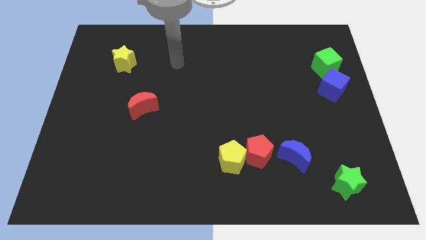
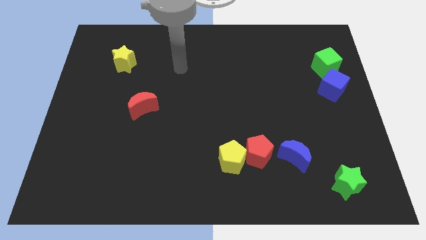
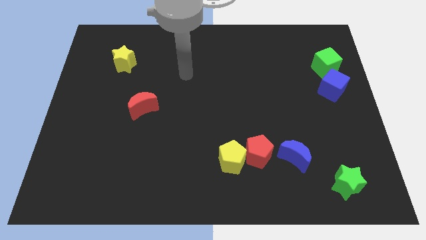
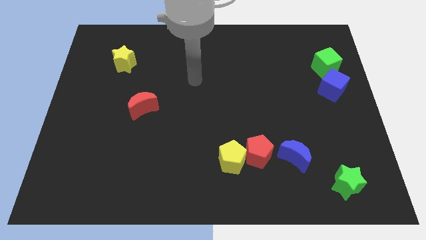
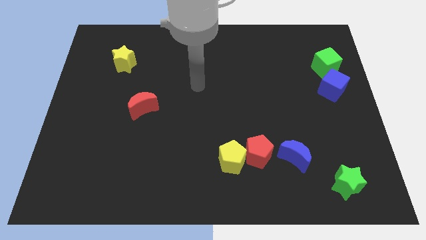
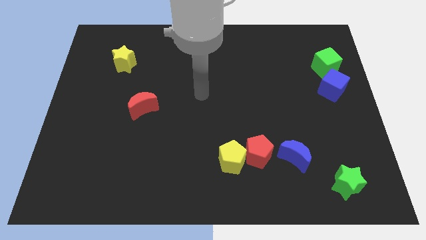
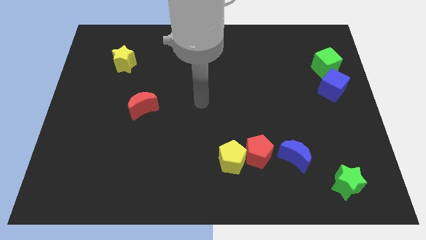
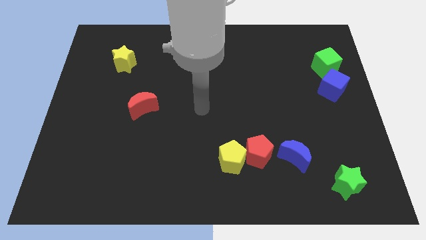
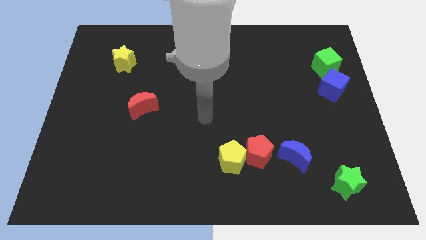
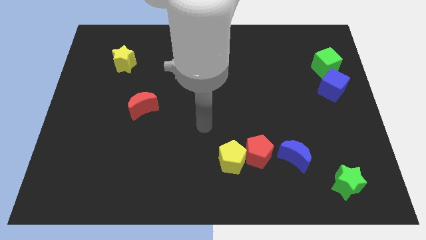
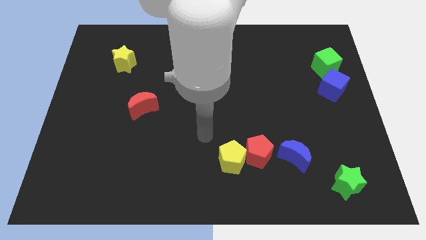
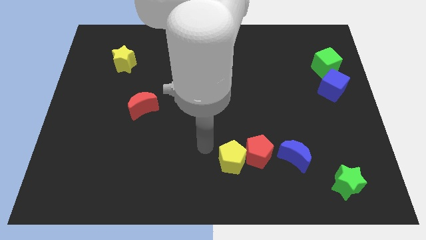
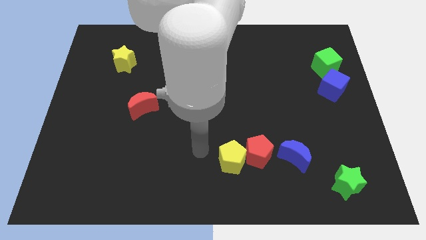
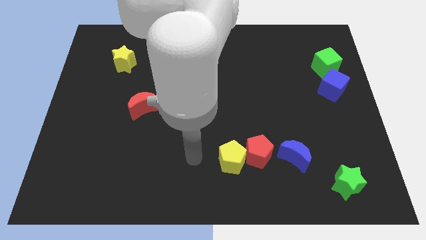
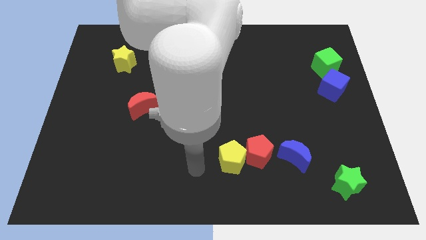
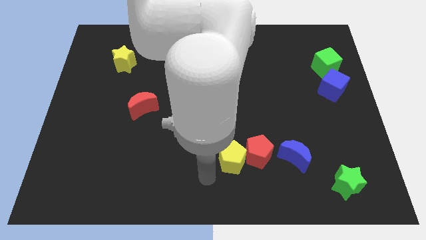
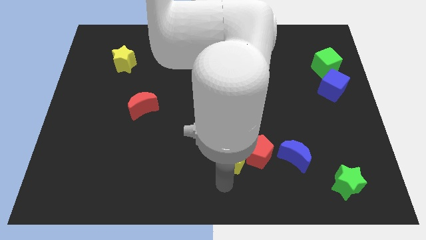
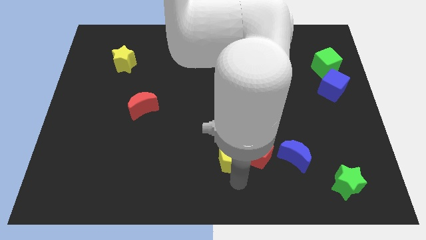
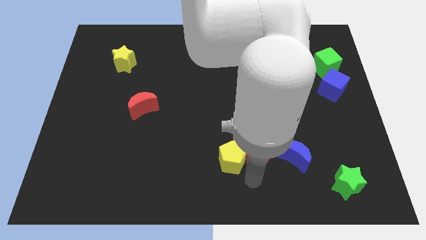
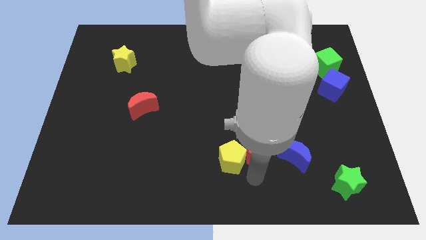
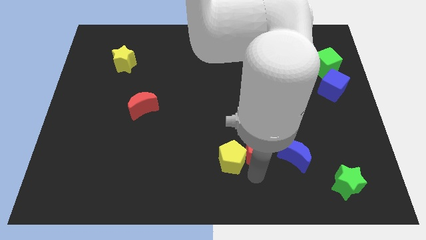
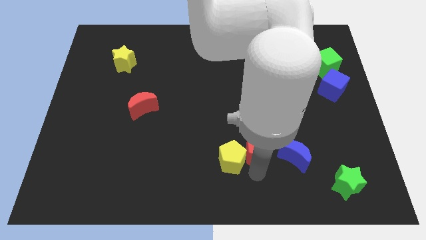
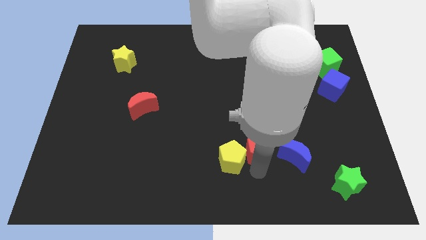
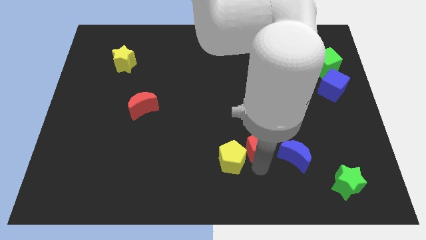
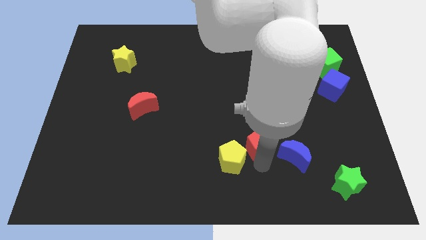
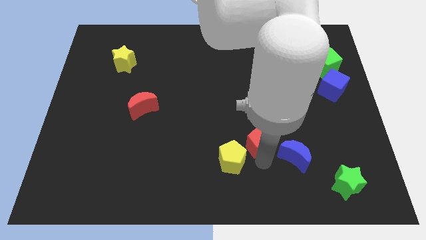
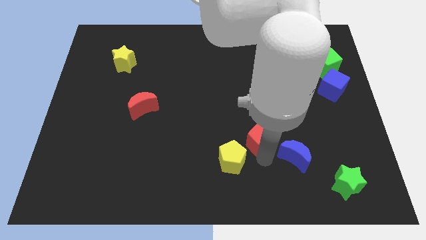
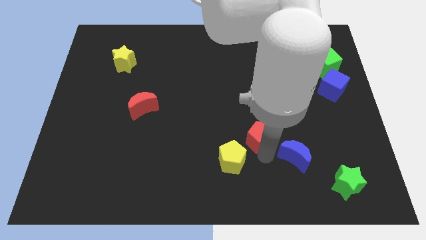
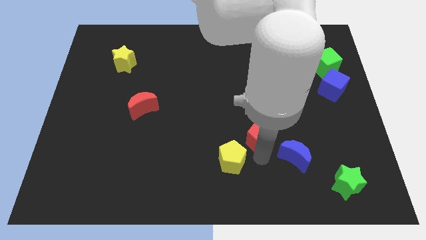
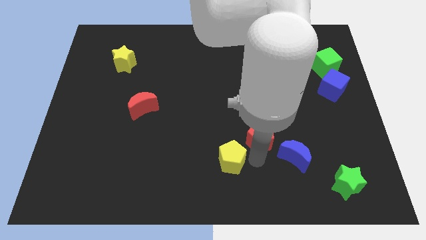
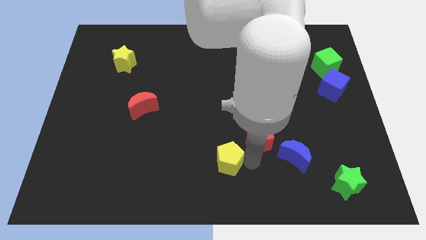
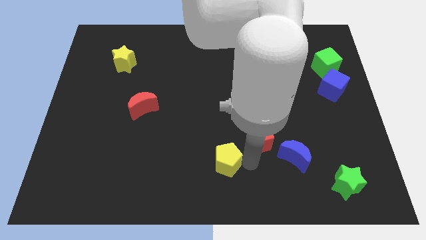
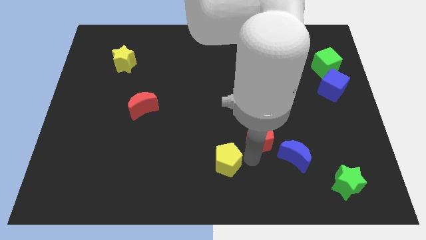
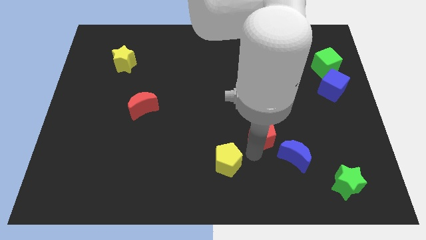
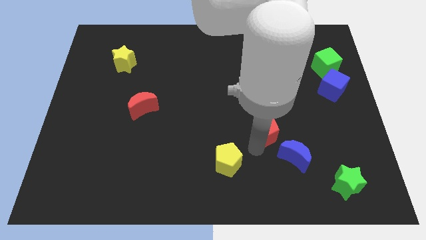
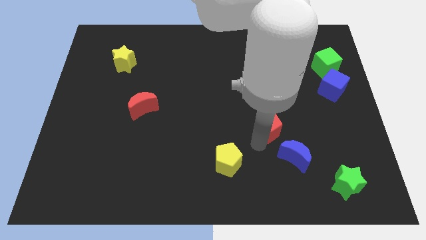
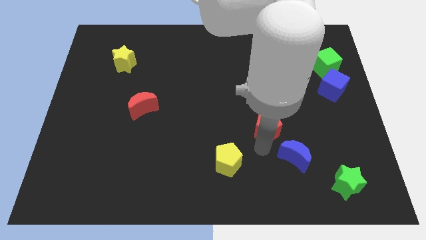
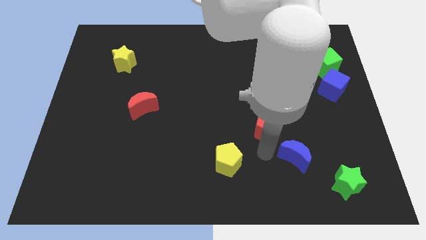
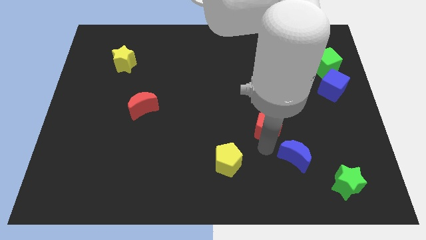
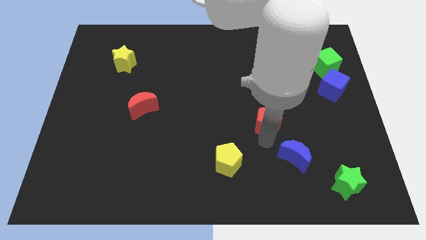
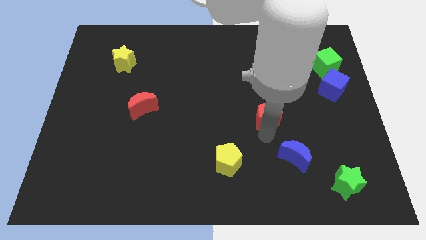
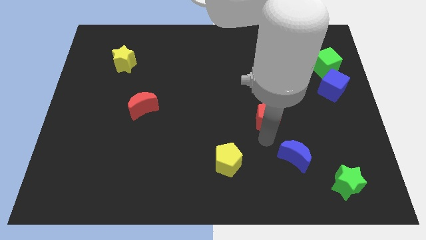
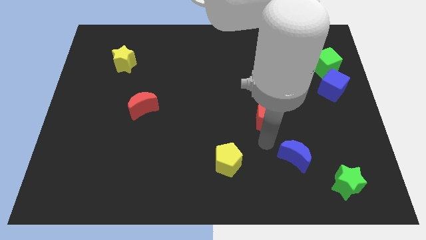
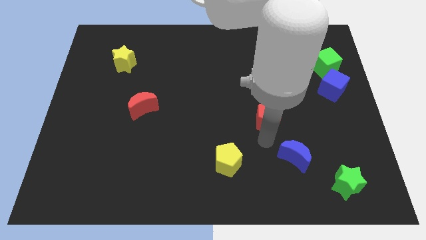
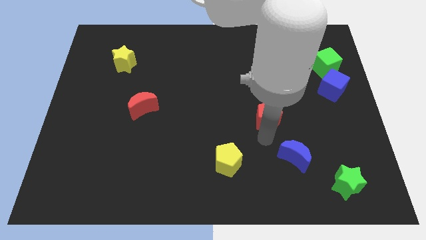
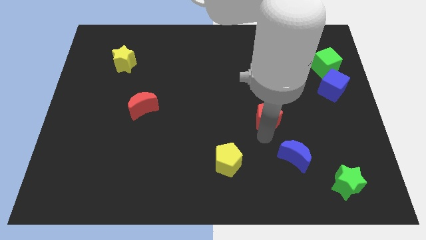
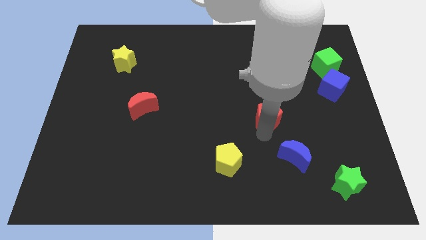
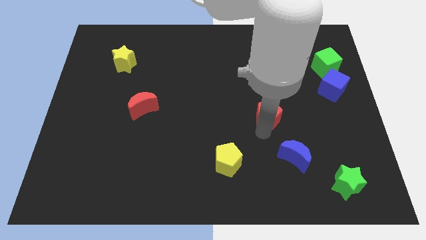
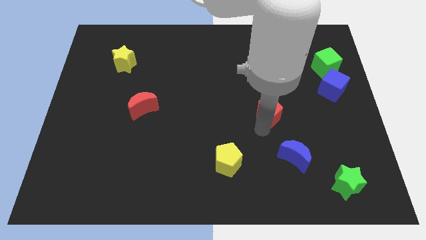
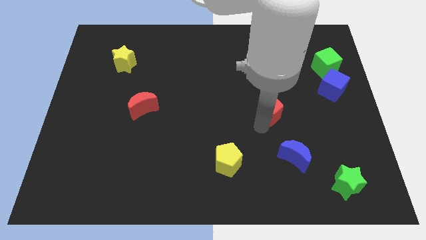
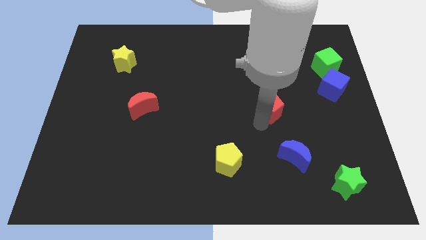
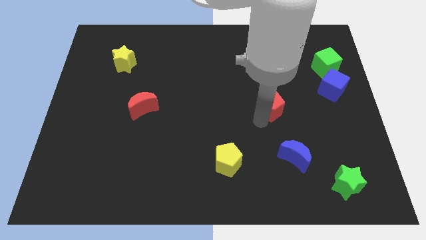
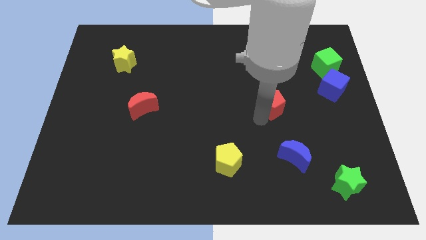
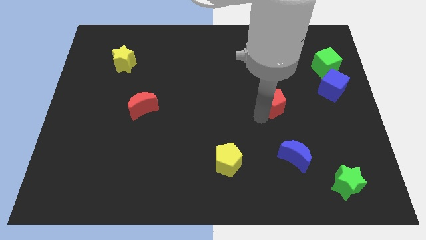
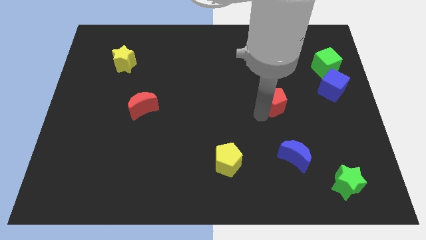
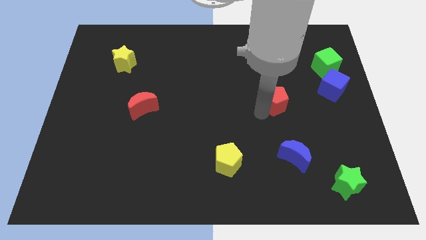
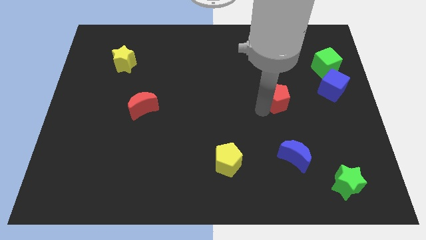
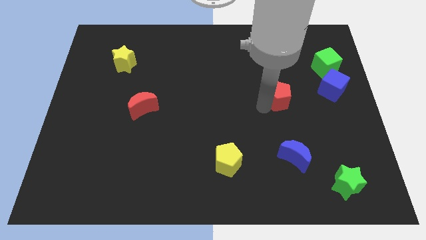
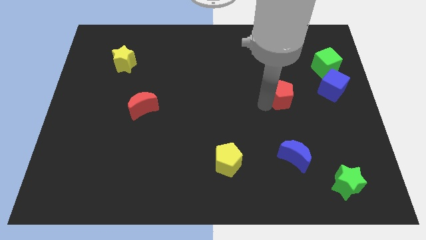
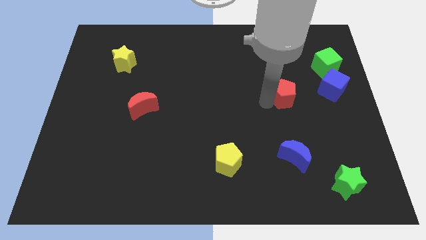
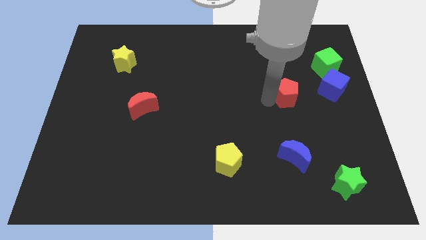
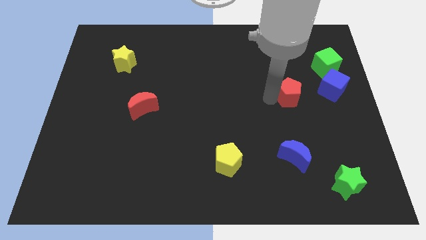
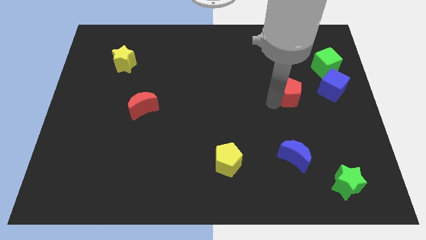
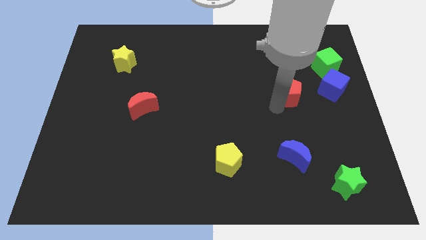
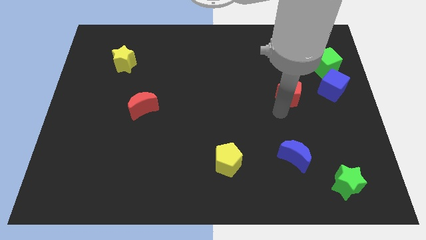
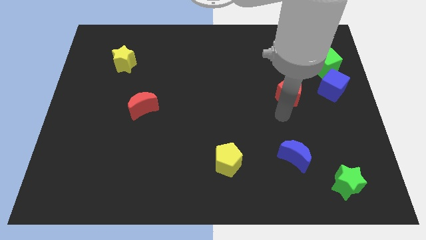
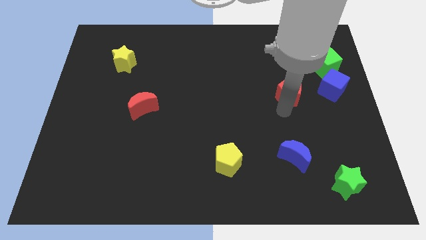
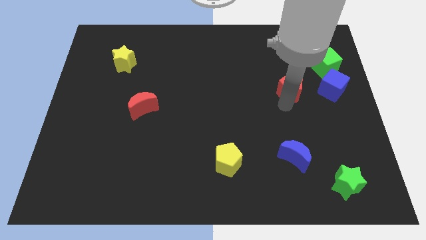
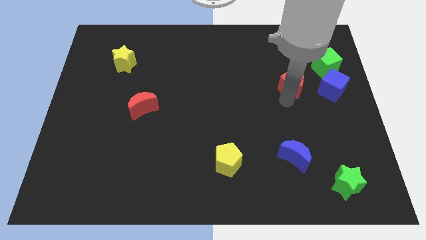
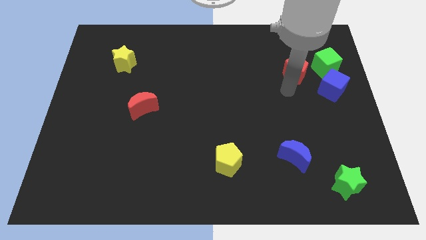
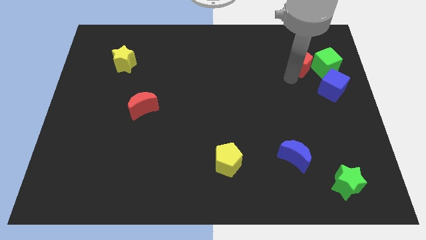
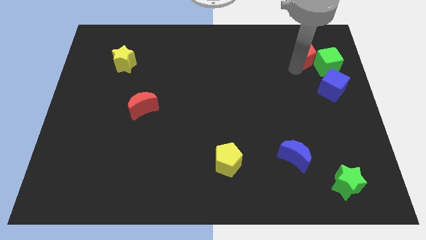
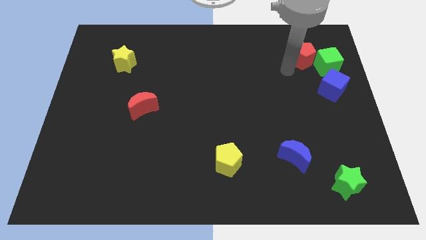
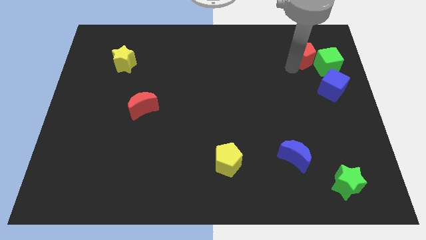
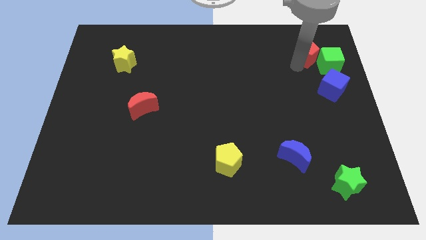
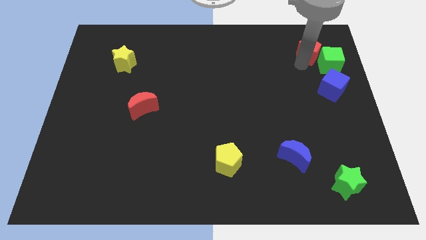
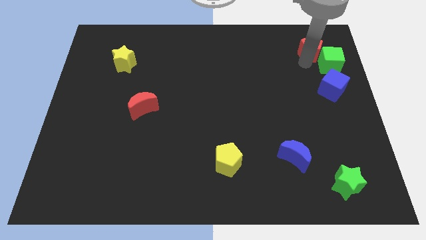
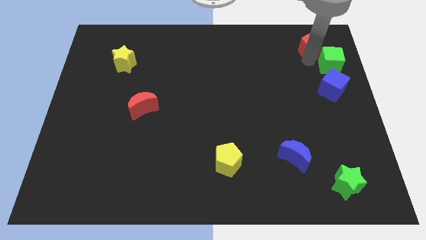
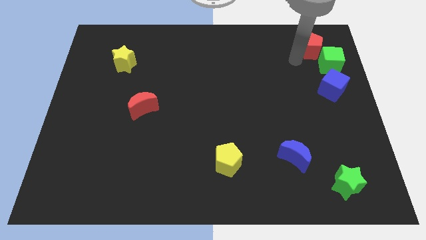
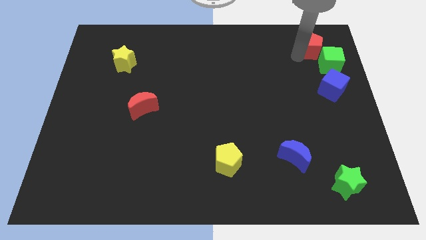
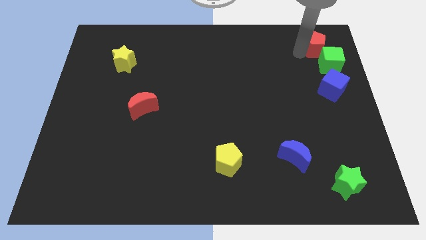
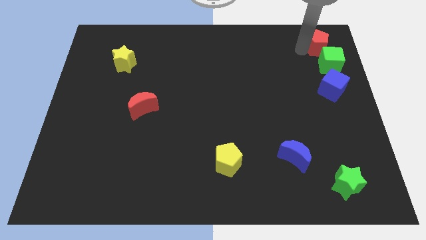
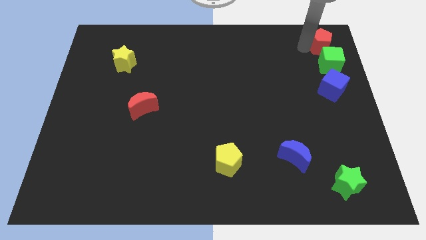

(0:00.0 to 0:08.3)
slide the red pentagon to the upper right corner
